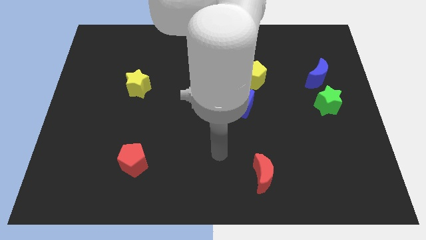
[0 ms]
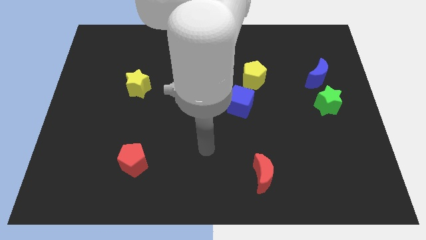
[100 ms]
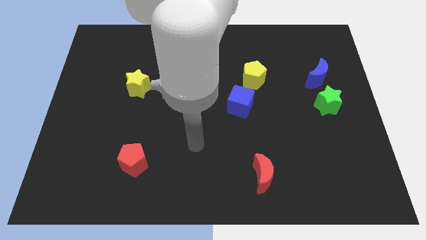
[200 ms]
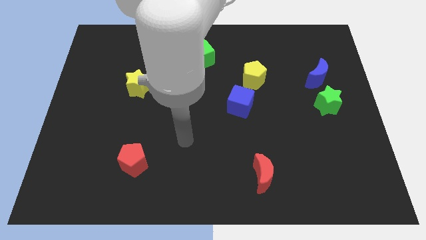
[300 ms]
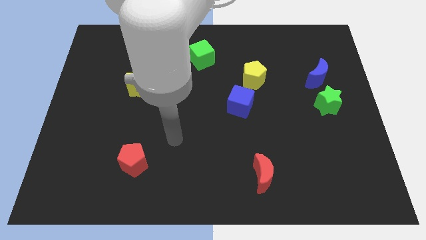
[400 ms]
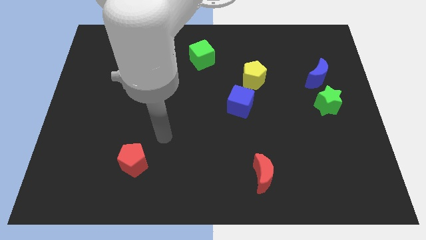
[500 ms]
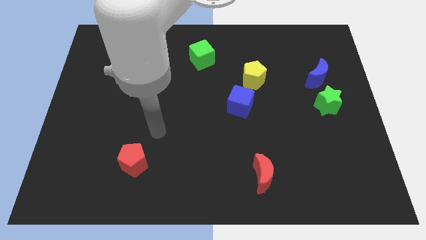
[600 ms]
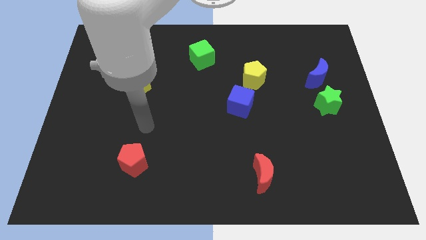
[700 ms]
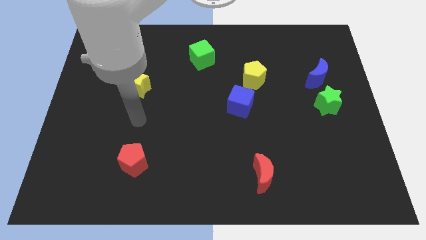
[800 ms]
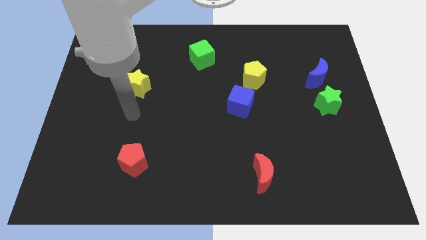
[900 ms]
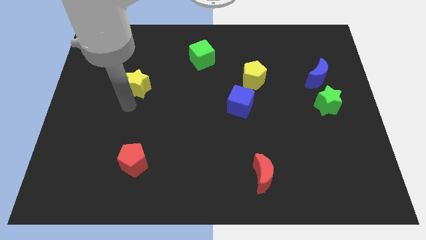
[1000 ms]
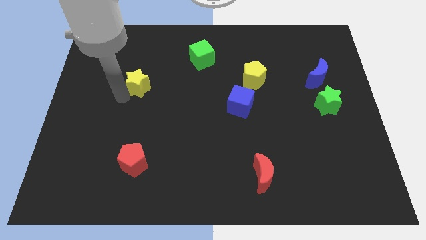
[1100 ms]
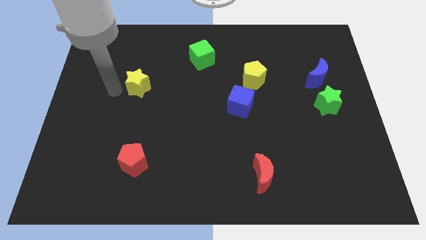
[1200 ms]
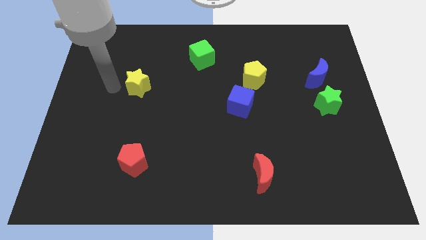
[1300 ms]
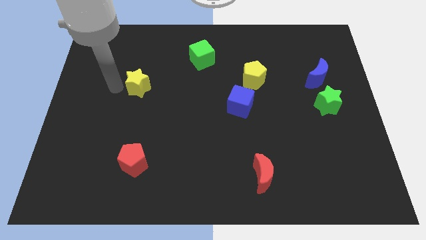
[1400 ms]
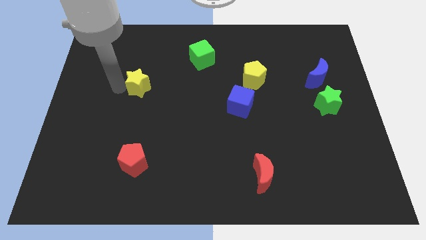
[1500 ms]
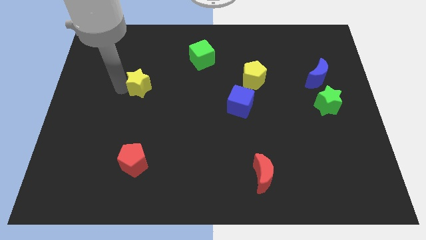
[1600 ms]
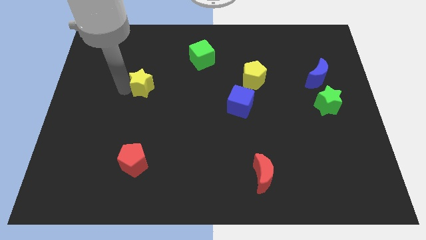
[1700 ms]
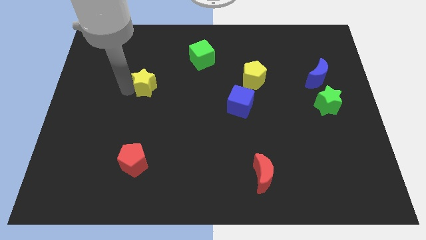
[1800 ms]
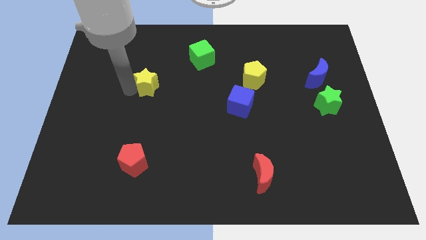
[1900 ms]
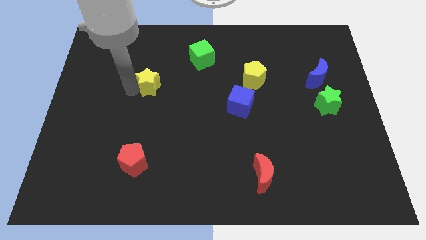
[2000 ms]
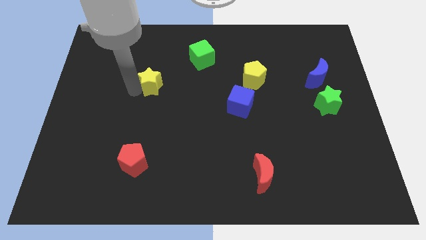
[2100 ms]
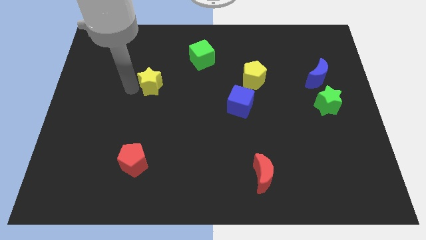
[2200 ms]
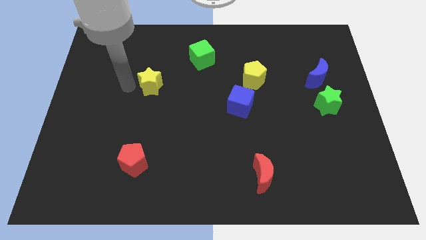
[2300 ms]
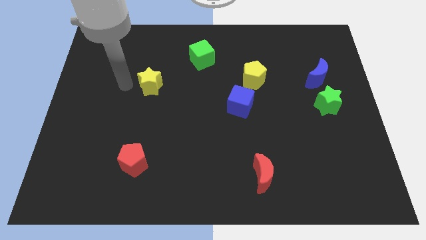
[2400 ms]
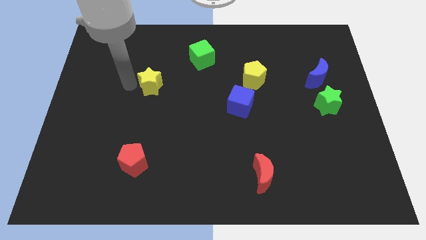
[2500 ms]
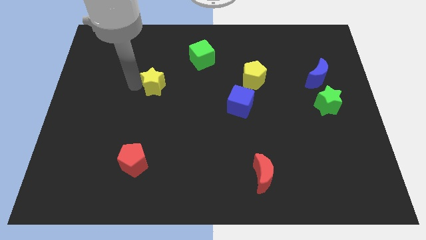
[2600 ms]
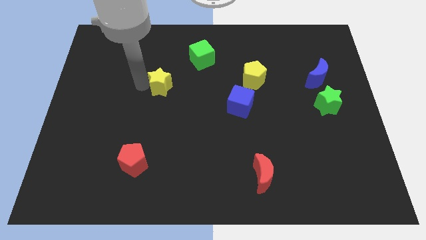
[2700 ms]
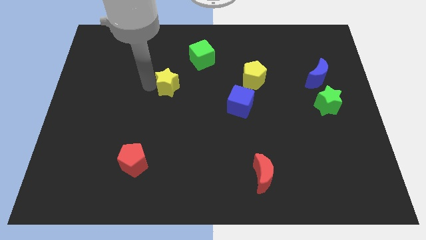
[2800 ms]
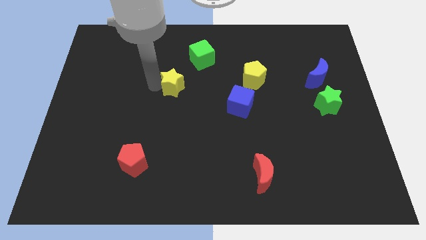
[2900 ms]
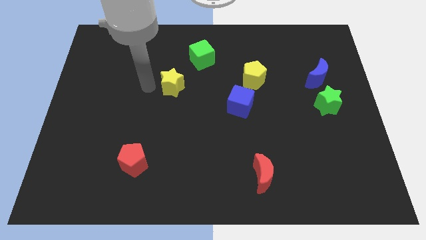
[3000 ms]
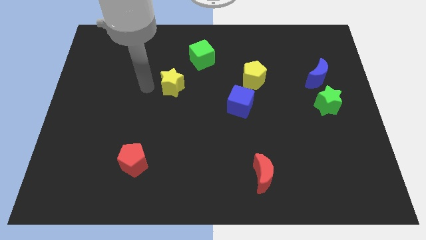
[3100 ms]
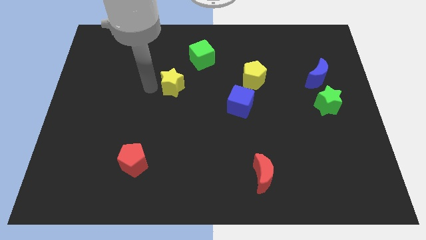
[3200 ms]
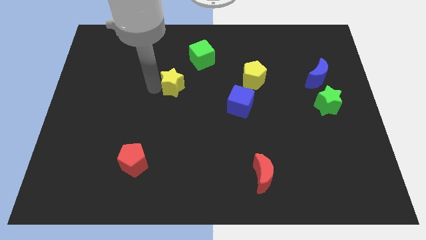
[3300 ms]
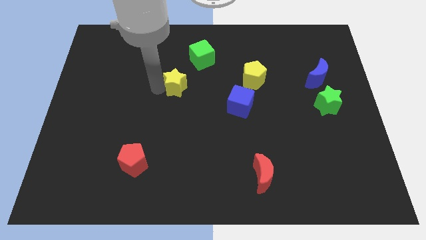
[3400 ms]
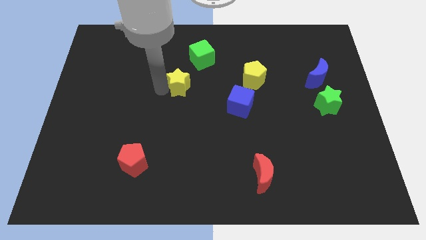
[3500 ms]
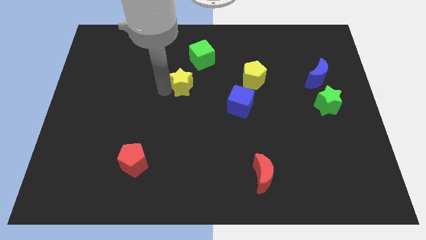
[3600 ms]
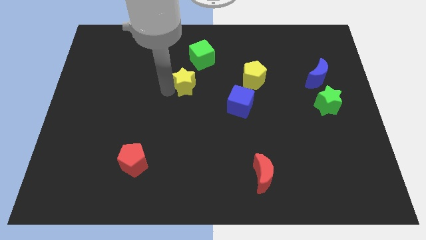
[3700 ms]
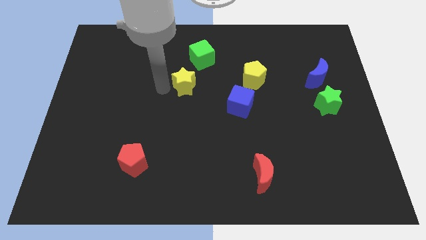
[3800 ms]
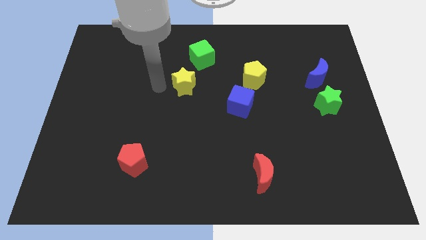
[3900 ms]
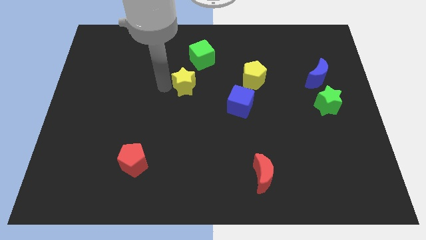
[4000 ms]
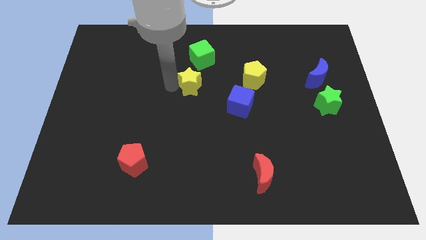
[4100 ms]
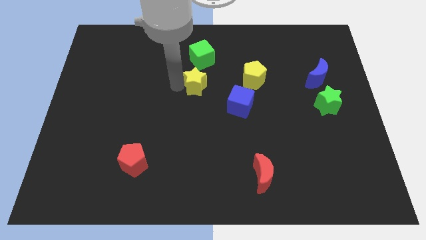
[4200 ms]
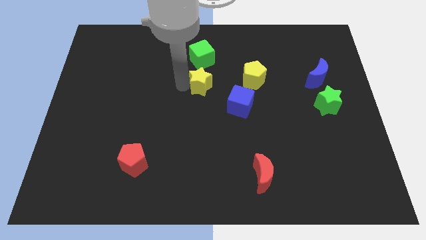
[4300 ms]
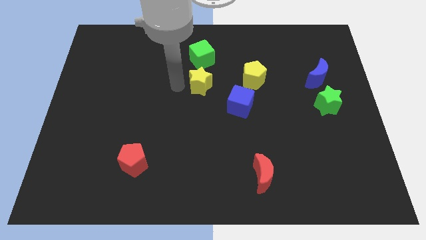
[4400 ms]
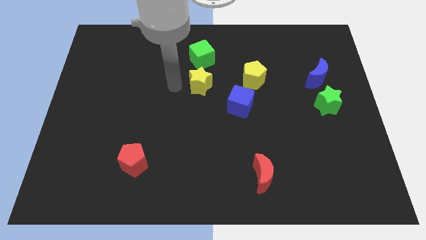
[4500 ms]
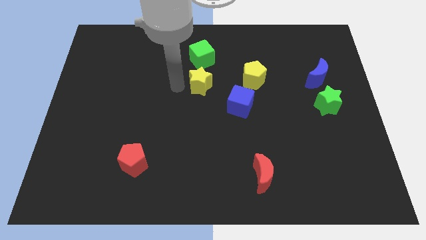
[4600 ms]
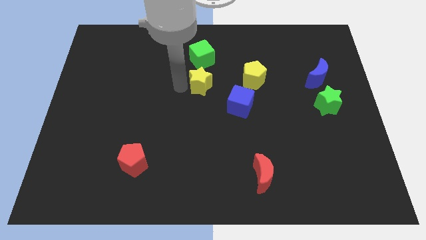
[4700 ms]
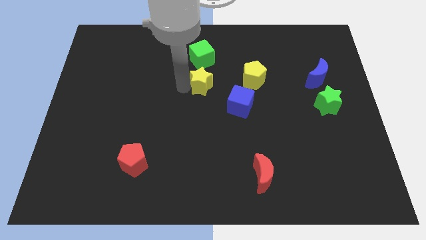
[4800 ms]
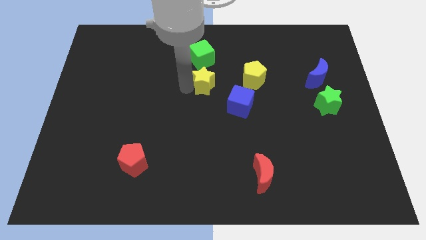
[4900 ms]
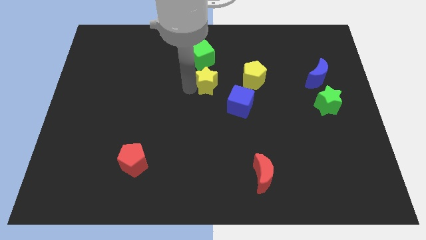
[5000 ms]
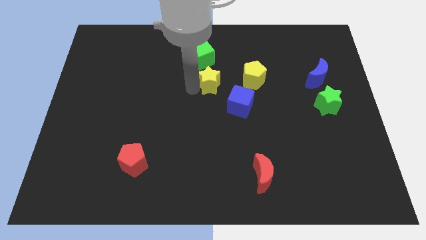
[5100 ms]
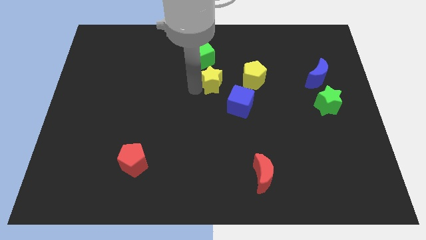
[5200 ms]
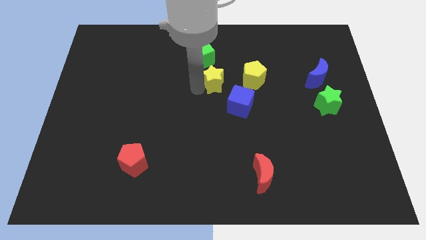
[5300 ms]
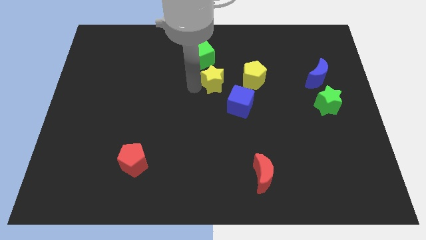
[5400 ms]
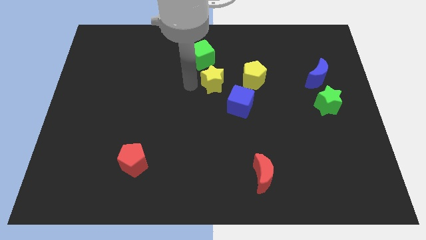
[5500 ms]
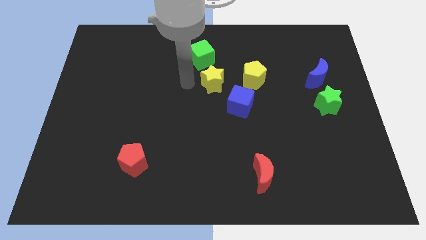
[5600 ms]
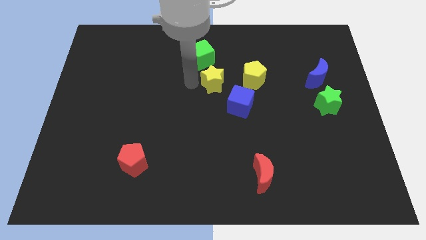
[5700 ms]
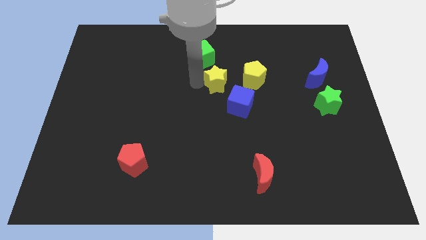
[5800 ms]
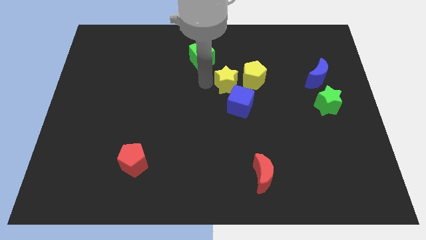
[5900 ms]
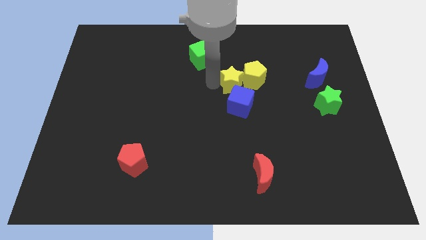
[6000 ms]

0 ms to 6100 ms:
move the yellow star close to the yellow pentagon

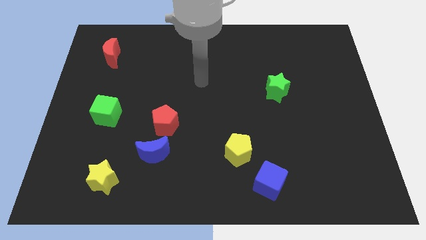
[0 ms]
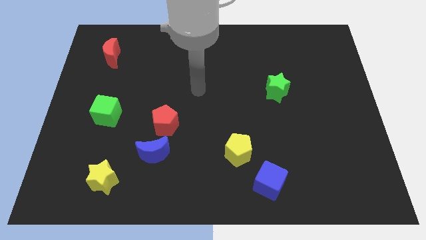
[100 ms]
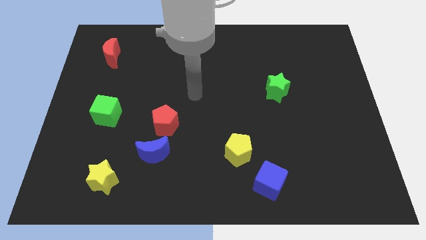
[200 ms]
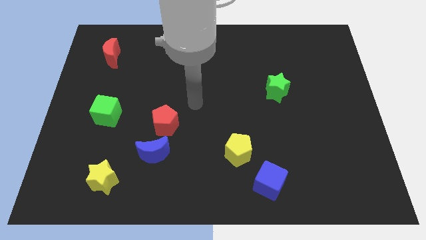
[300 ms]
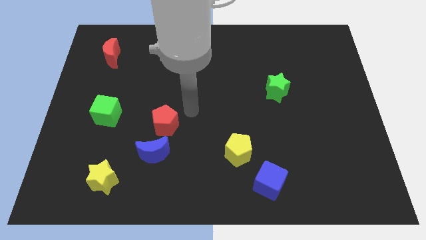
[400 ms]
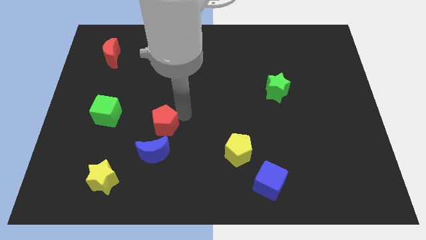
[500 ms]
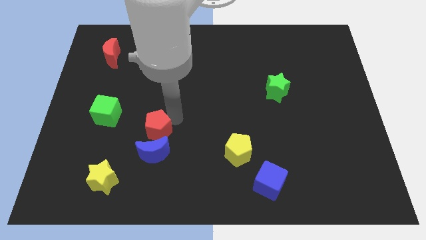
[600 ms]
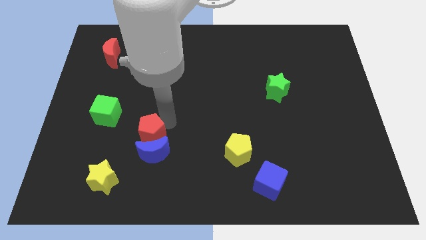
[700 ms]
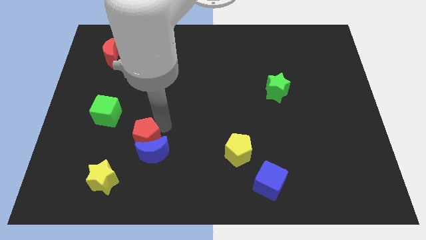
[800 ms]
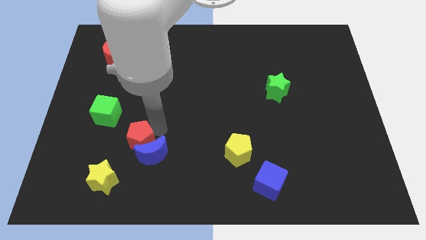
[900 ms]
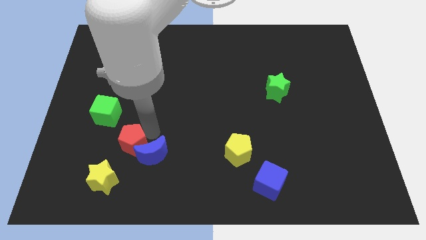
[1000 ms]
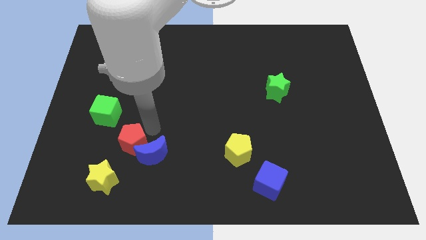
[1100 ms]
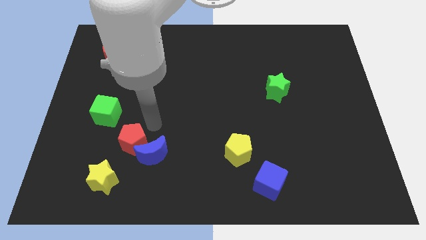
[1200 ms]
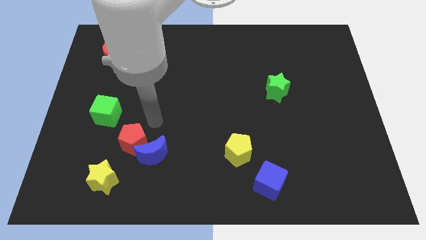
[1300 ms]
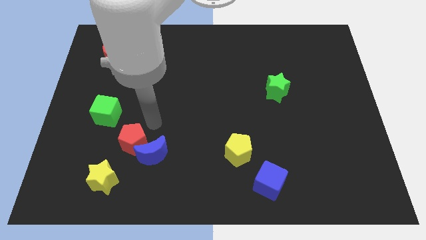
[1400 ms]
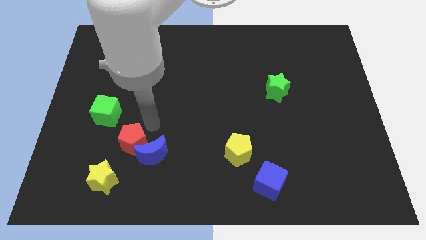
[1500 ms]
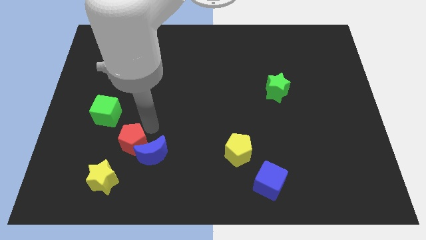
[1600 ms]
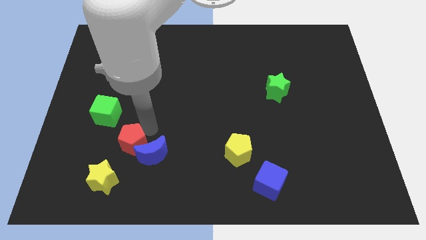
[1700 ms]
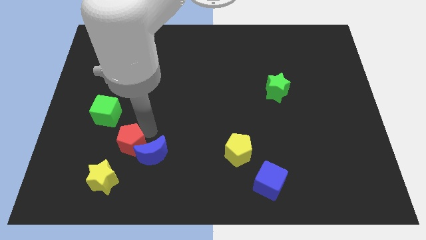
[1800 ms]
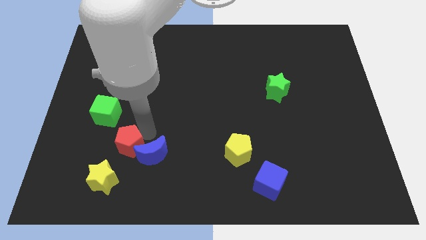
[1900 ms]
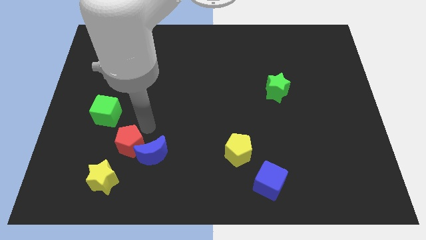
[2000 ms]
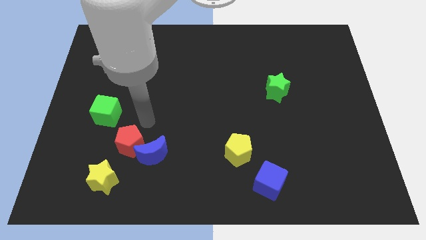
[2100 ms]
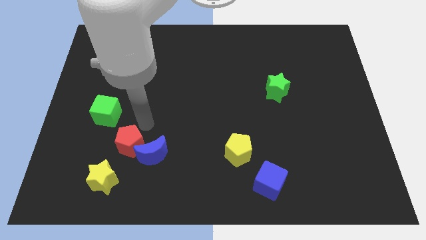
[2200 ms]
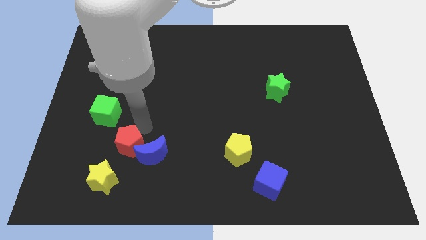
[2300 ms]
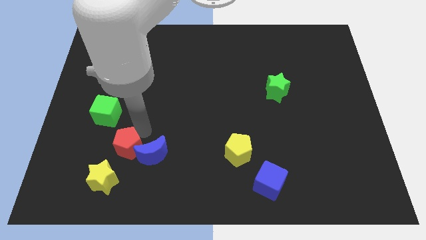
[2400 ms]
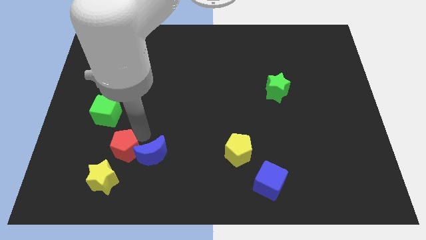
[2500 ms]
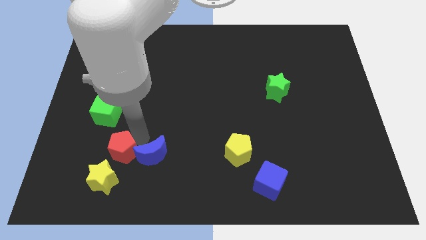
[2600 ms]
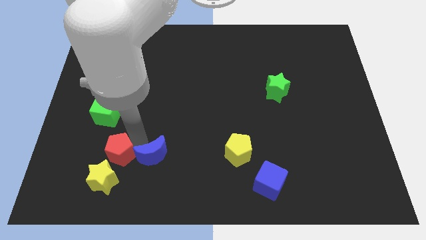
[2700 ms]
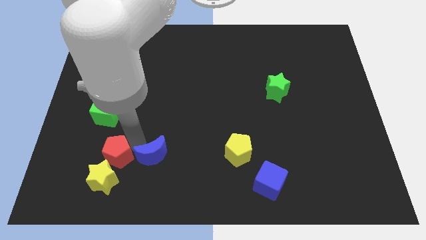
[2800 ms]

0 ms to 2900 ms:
slide the red pentagon close to the yellow star
